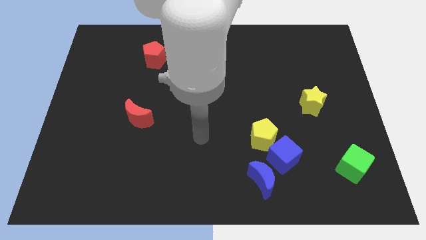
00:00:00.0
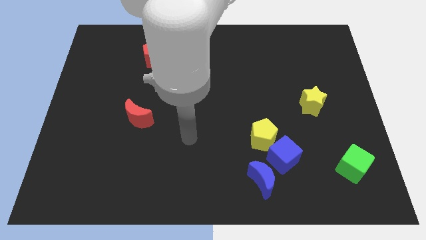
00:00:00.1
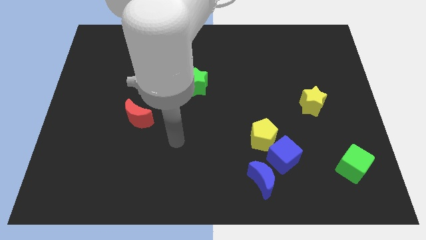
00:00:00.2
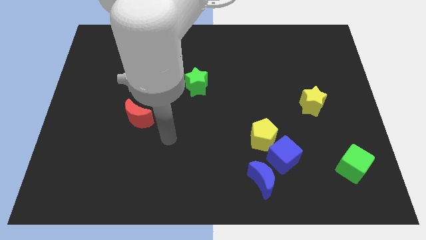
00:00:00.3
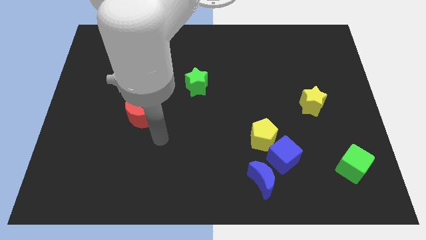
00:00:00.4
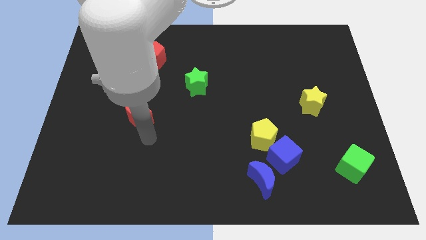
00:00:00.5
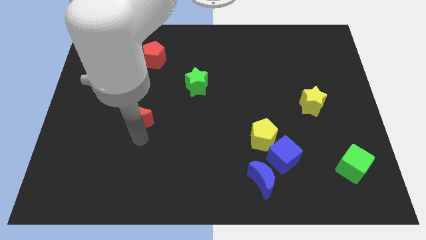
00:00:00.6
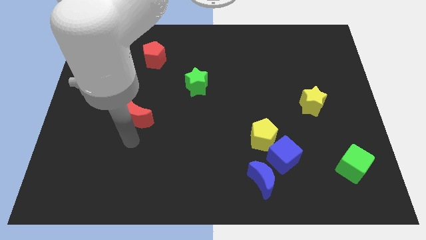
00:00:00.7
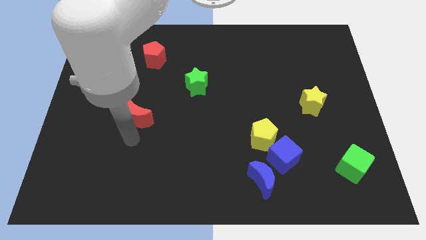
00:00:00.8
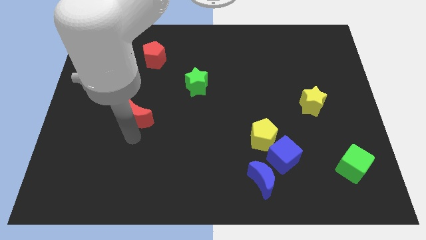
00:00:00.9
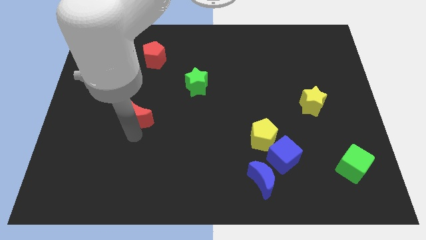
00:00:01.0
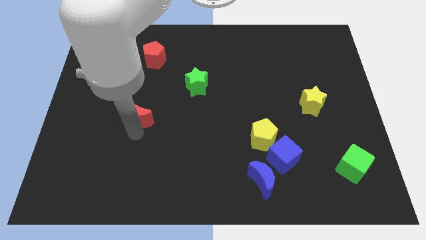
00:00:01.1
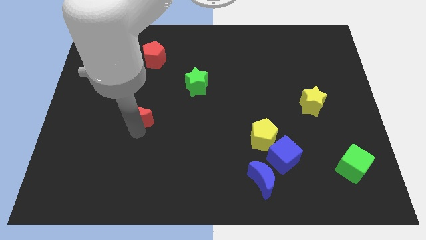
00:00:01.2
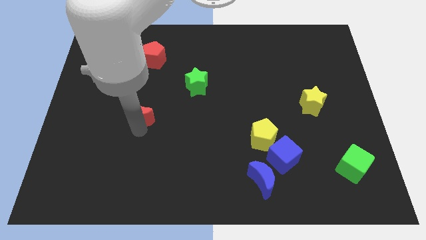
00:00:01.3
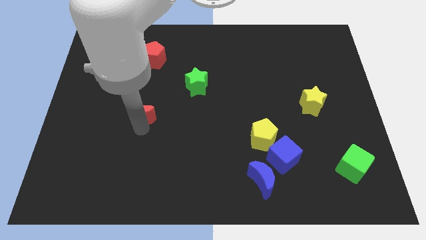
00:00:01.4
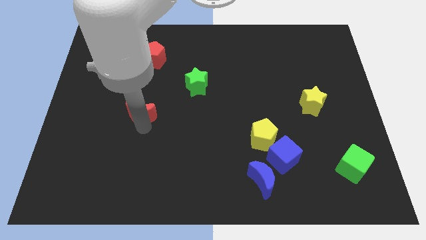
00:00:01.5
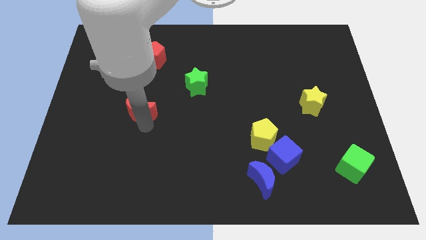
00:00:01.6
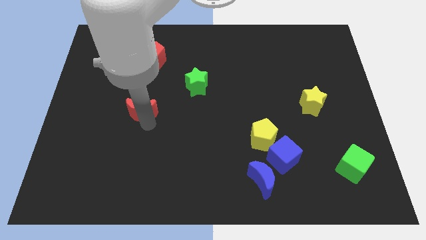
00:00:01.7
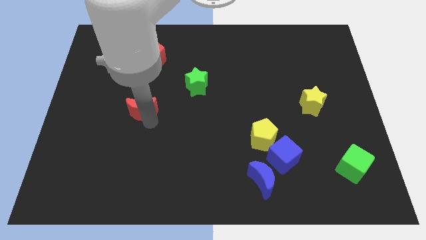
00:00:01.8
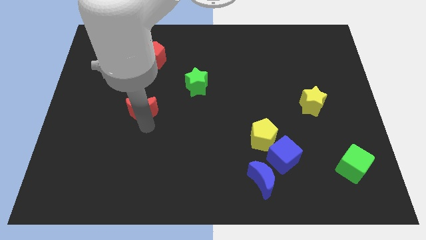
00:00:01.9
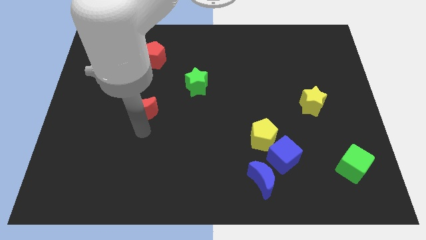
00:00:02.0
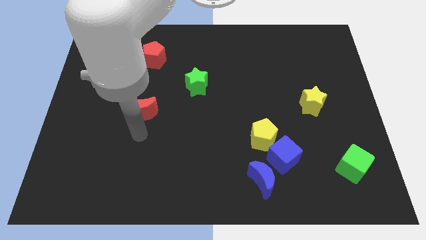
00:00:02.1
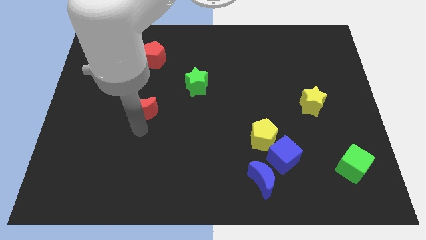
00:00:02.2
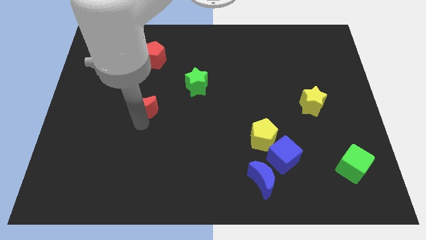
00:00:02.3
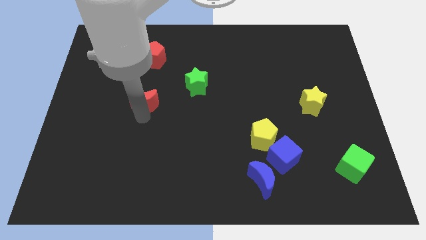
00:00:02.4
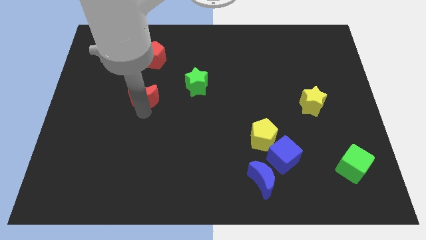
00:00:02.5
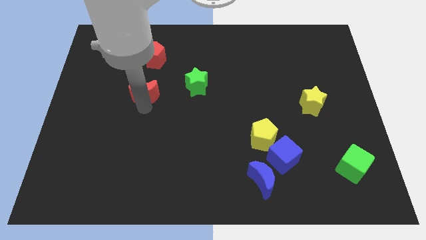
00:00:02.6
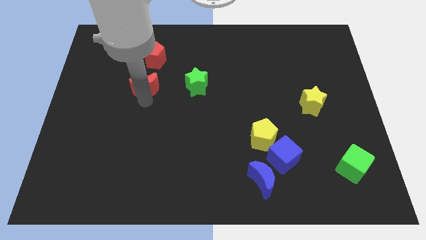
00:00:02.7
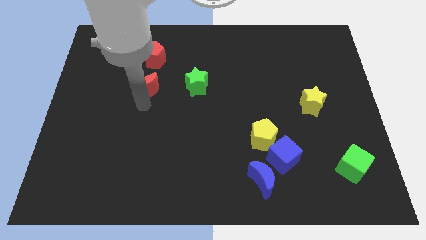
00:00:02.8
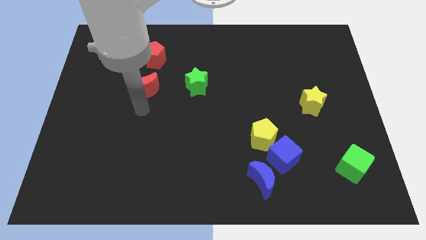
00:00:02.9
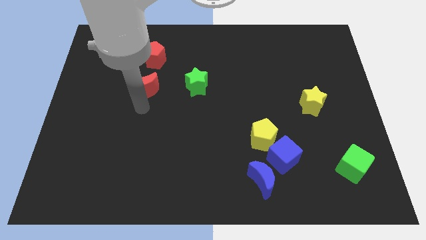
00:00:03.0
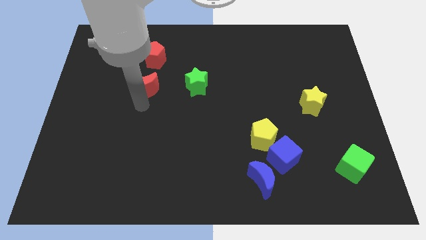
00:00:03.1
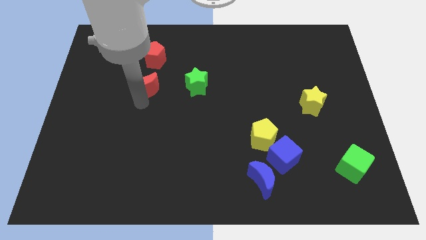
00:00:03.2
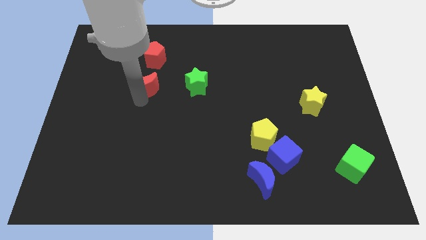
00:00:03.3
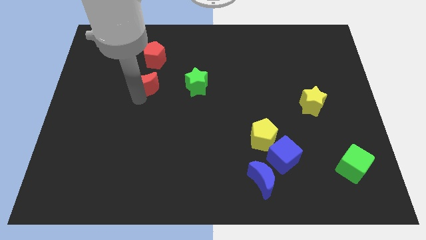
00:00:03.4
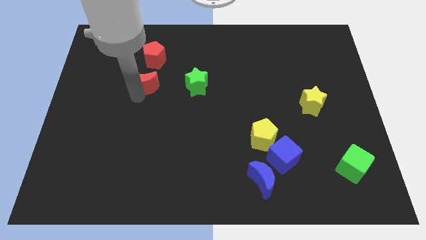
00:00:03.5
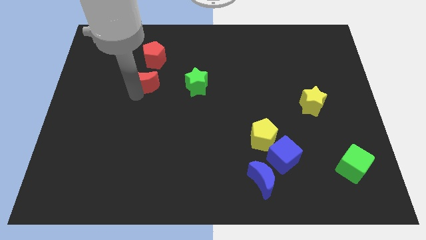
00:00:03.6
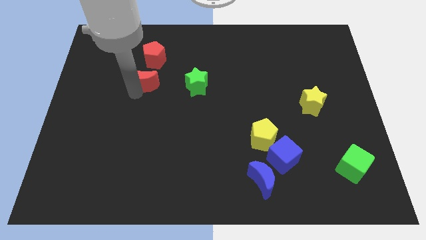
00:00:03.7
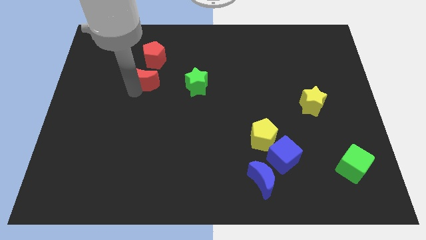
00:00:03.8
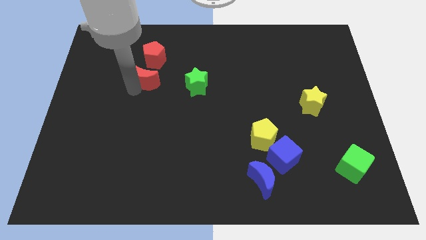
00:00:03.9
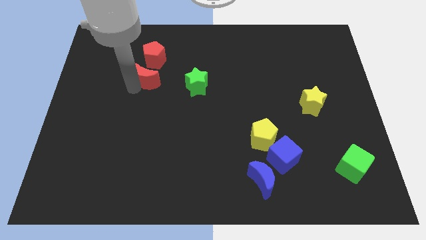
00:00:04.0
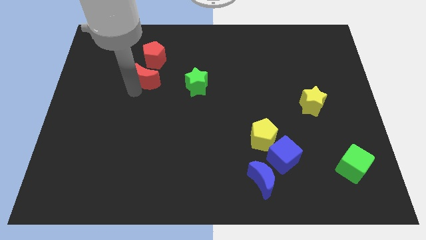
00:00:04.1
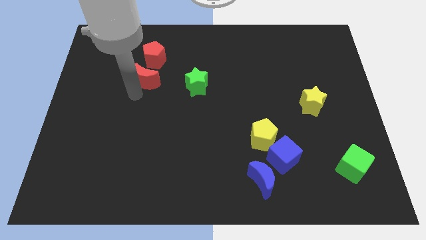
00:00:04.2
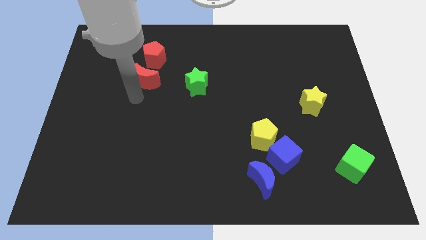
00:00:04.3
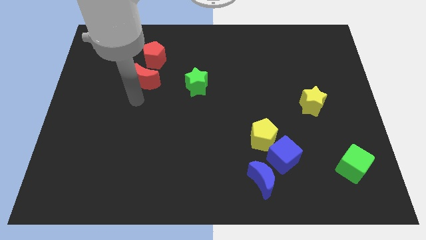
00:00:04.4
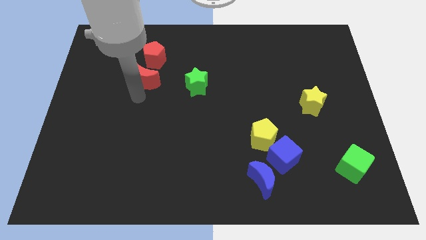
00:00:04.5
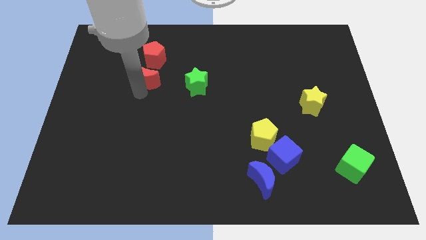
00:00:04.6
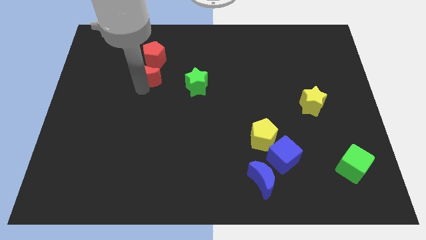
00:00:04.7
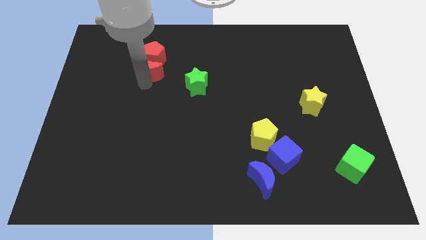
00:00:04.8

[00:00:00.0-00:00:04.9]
push the red moon towards the red pentagon

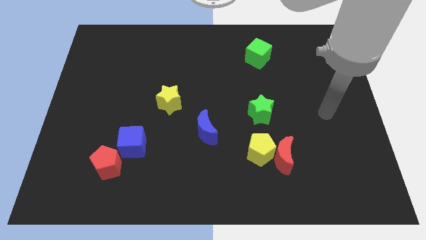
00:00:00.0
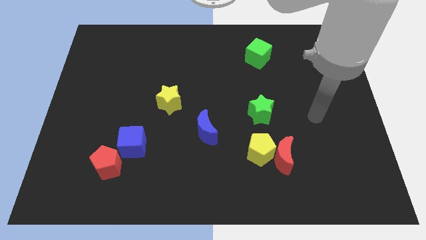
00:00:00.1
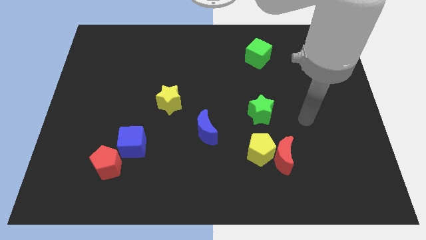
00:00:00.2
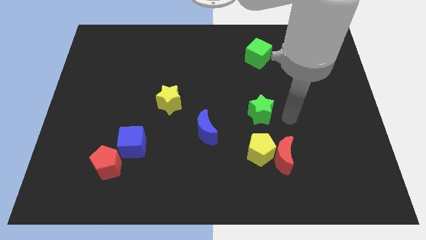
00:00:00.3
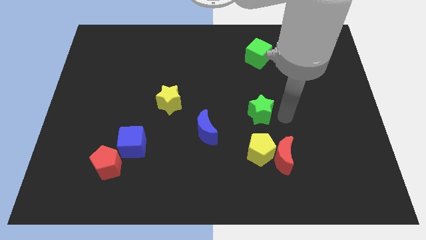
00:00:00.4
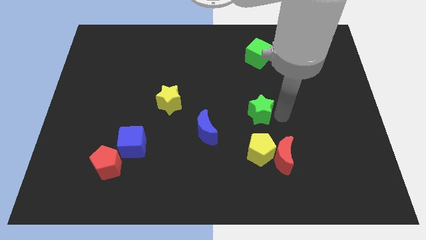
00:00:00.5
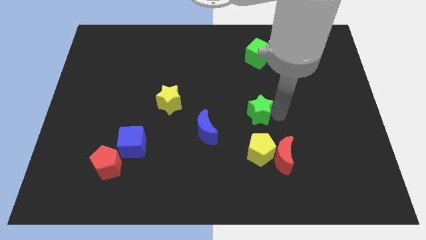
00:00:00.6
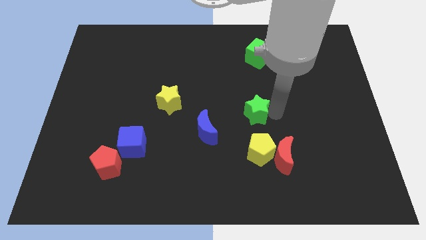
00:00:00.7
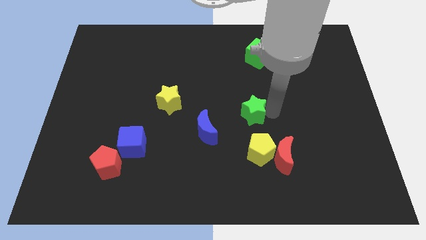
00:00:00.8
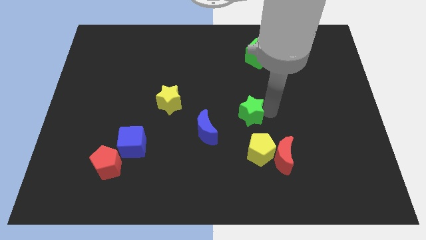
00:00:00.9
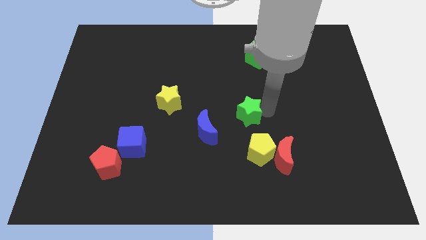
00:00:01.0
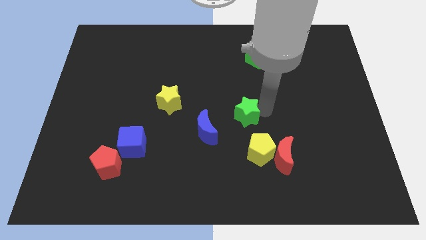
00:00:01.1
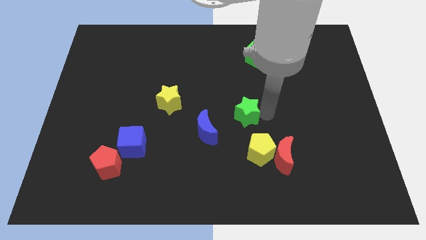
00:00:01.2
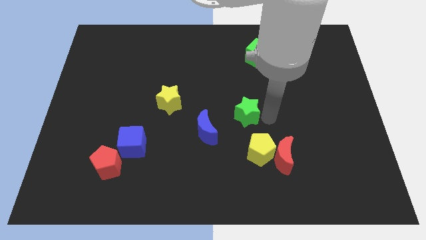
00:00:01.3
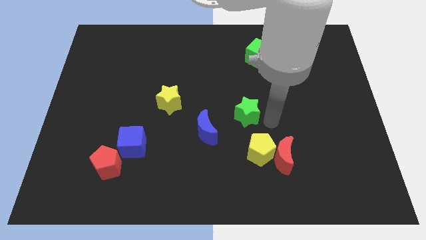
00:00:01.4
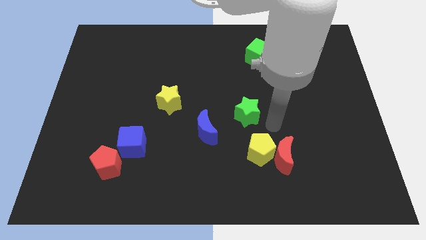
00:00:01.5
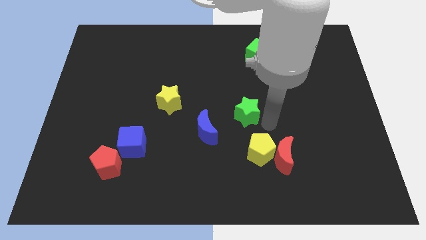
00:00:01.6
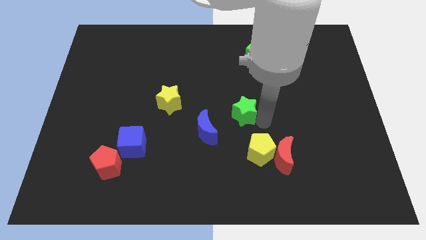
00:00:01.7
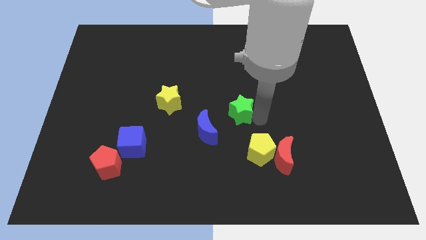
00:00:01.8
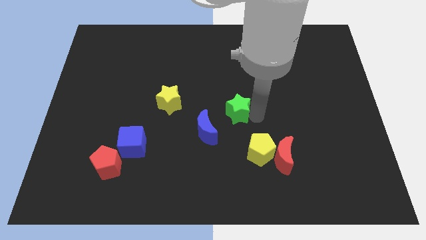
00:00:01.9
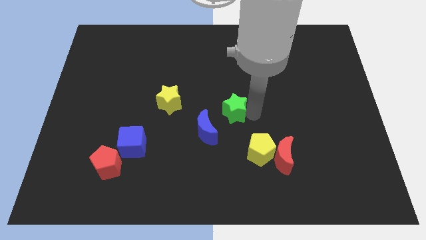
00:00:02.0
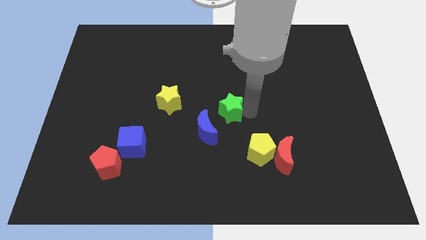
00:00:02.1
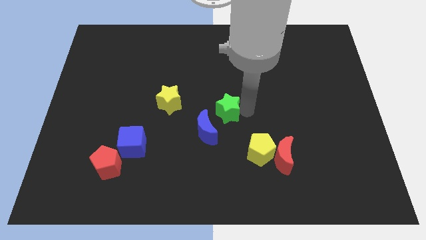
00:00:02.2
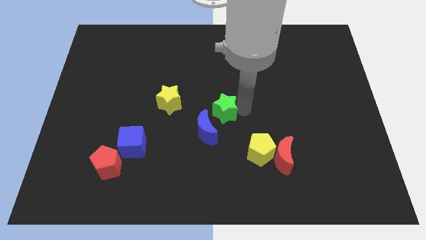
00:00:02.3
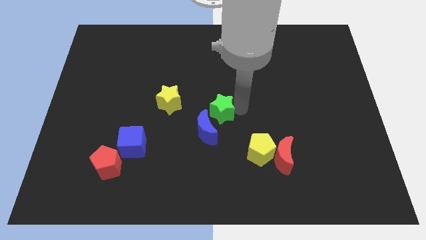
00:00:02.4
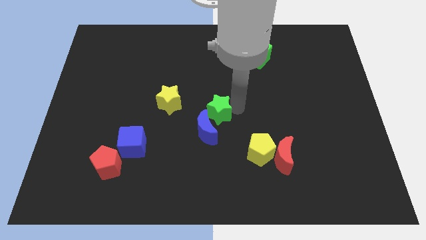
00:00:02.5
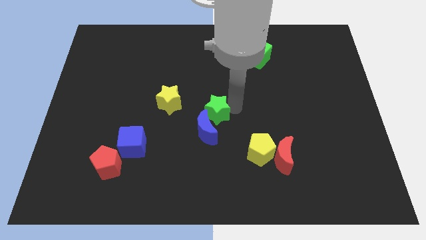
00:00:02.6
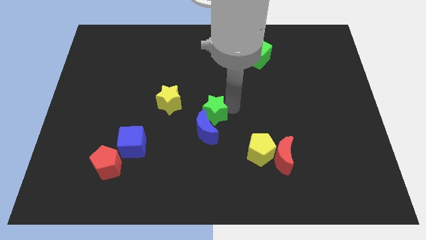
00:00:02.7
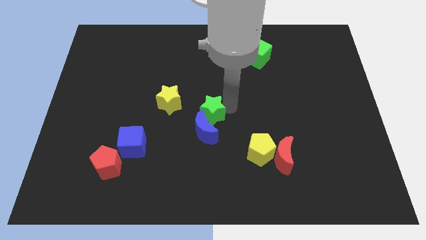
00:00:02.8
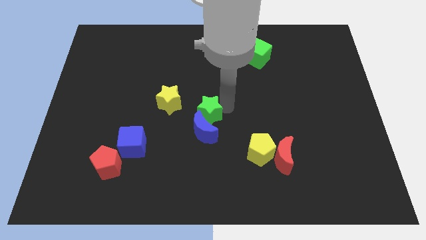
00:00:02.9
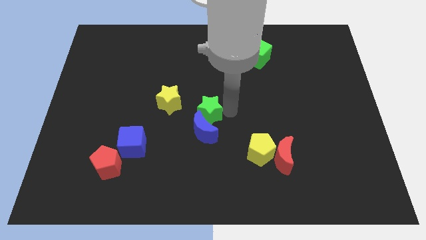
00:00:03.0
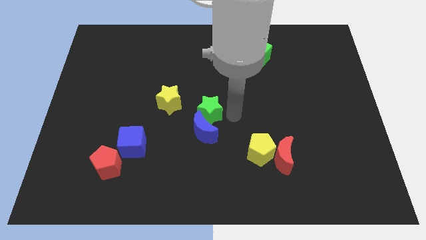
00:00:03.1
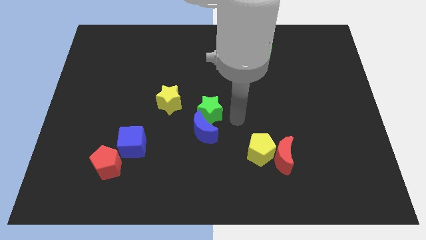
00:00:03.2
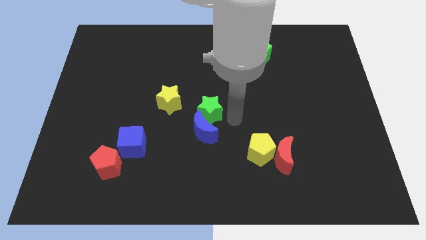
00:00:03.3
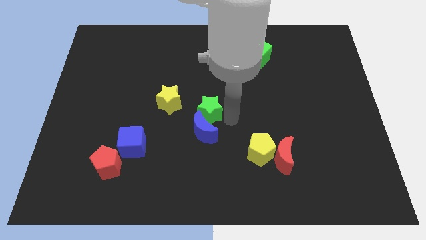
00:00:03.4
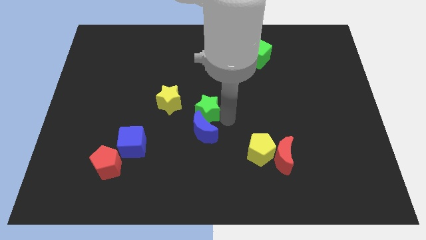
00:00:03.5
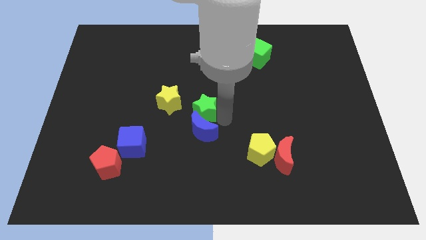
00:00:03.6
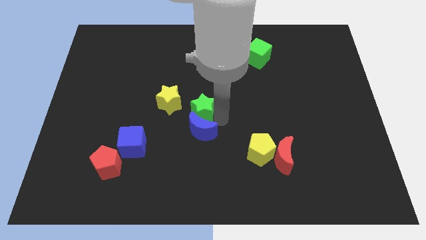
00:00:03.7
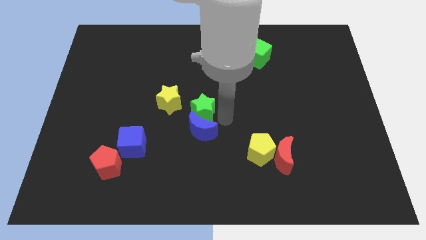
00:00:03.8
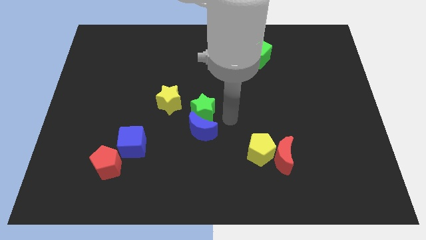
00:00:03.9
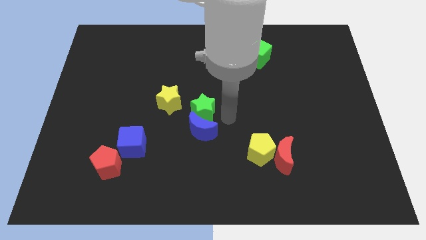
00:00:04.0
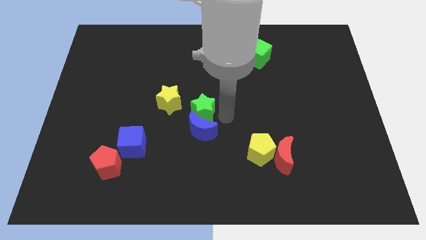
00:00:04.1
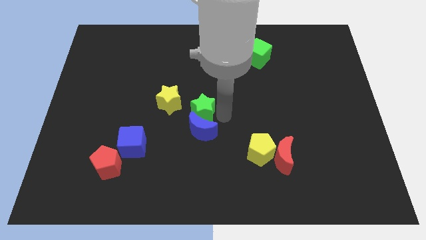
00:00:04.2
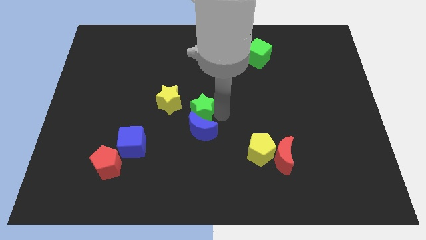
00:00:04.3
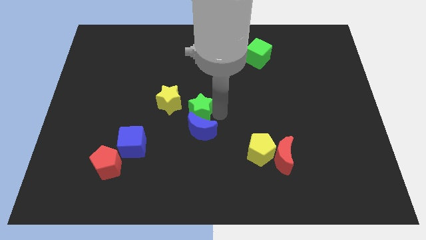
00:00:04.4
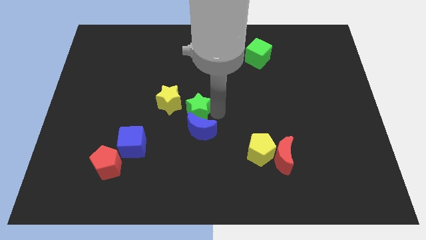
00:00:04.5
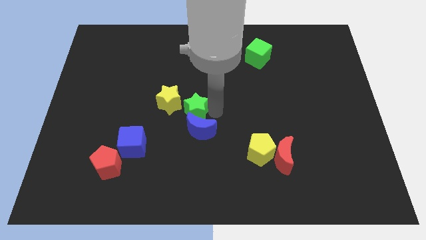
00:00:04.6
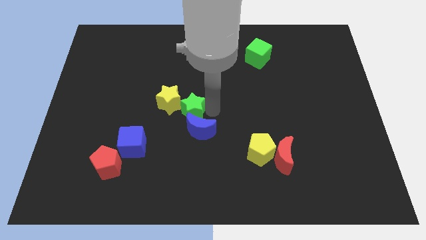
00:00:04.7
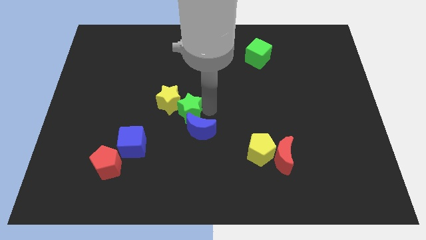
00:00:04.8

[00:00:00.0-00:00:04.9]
move the green star to the yellow star
